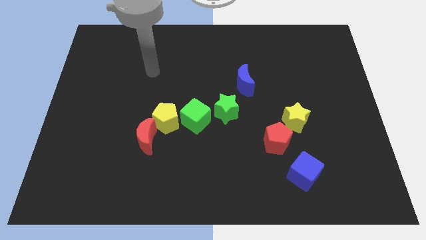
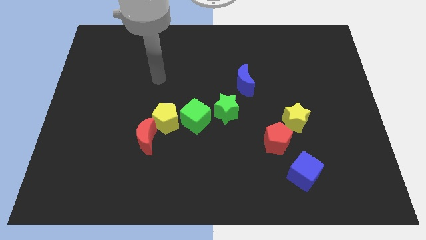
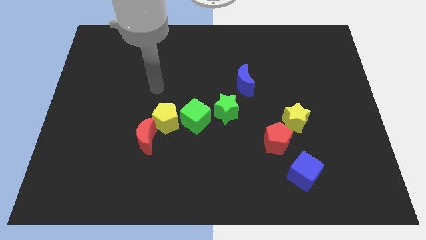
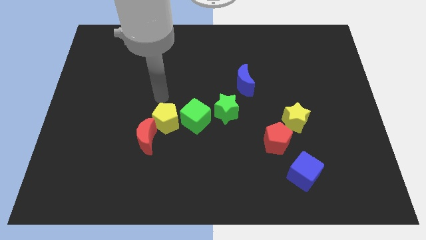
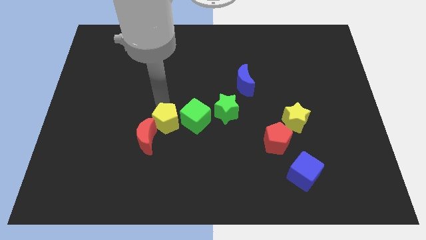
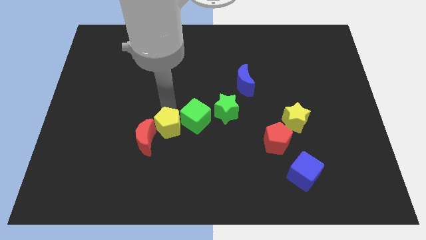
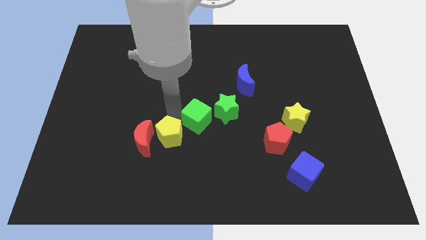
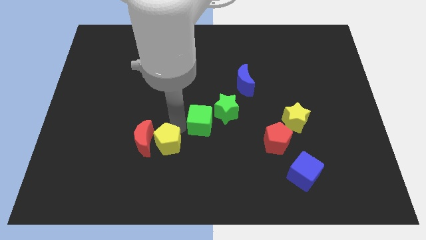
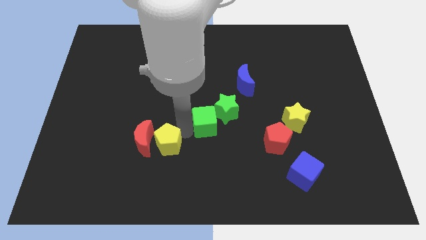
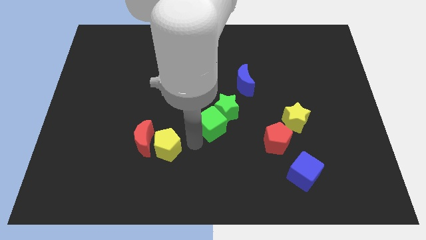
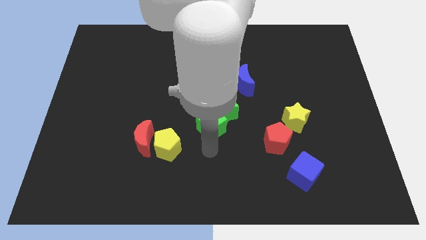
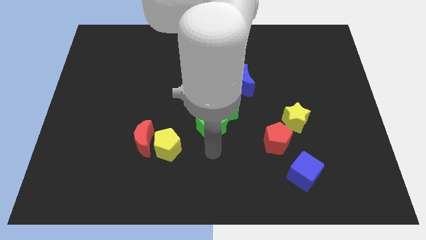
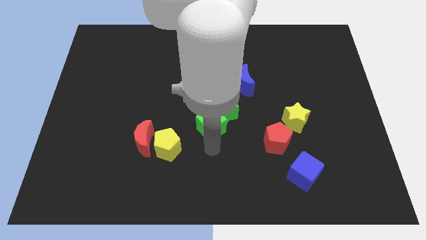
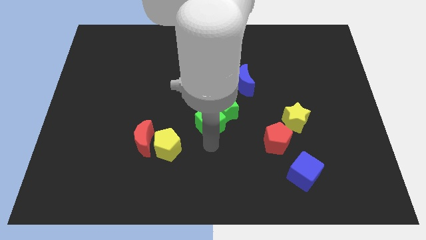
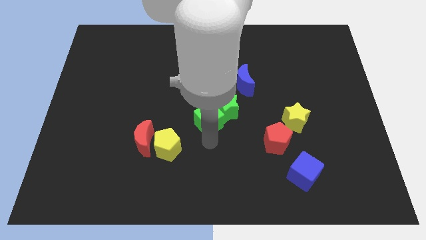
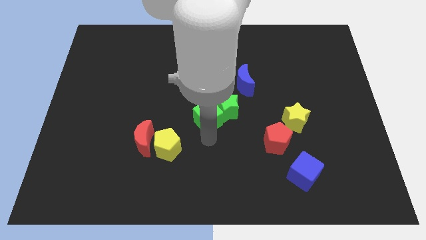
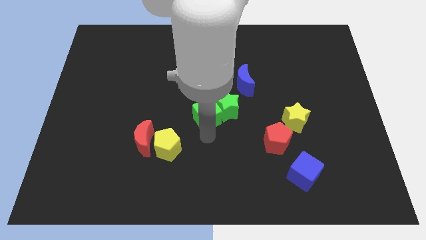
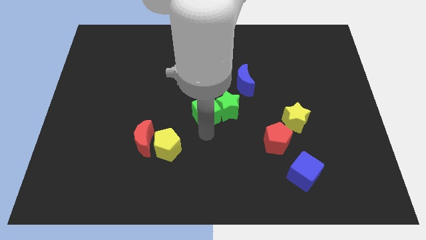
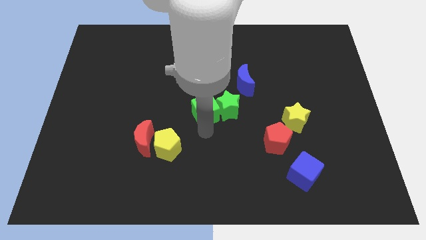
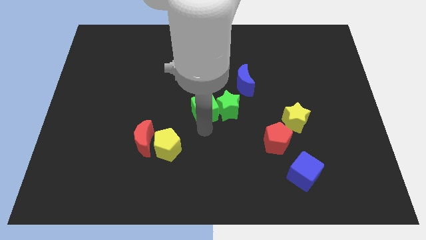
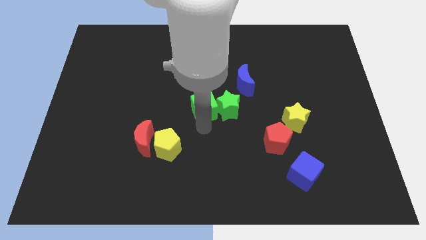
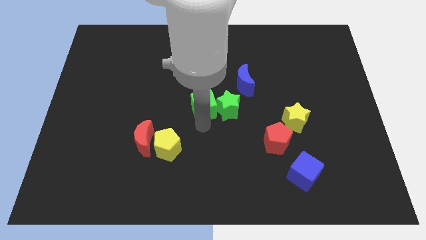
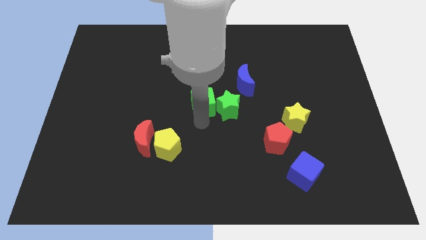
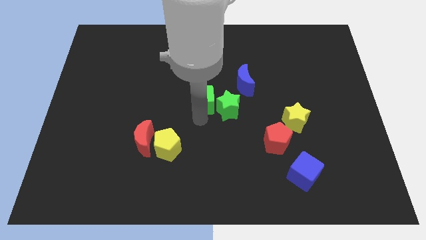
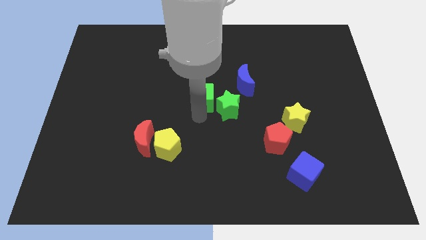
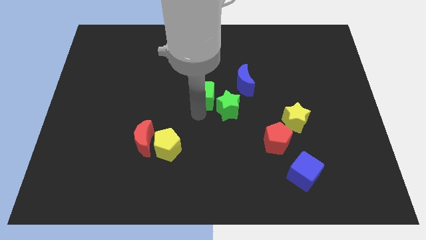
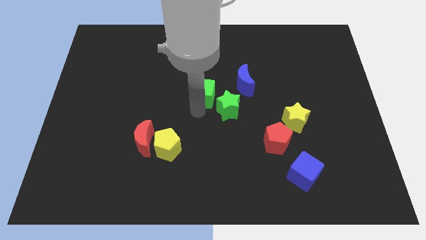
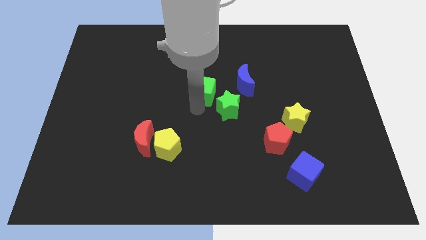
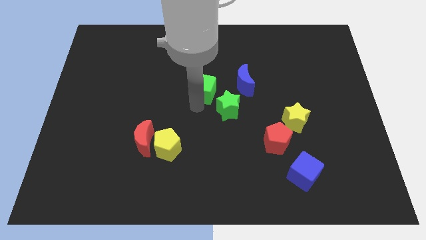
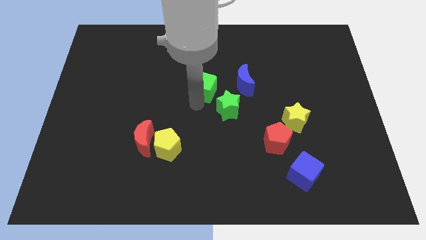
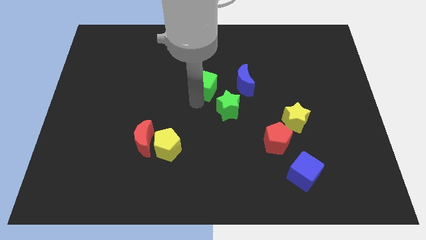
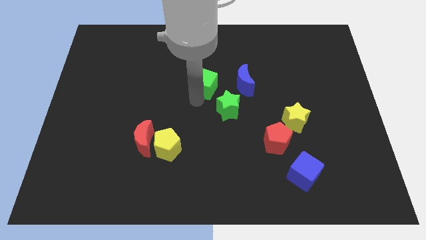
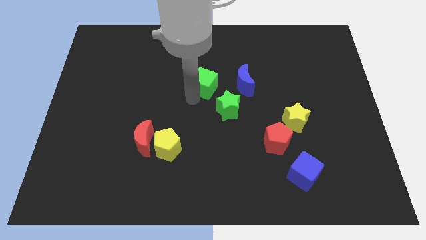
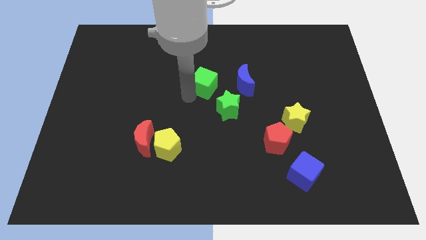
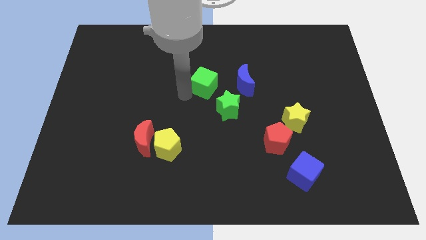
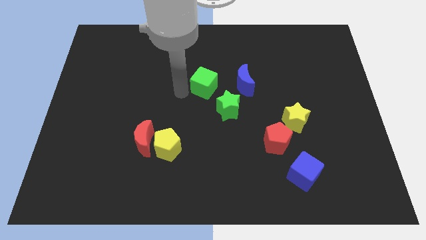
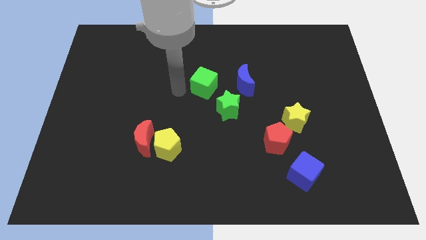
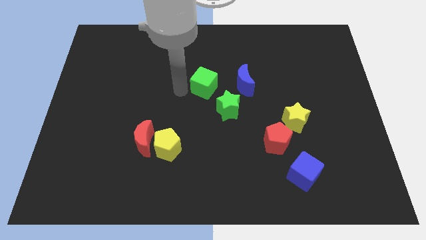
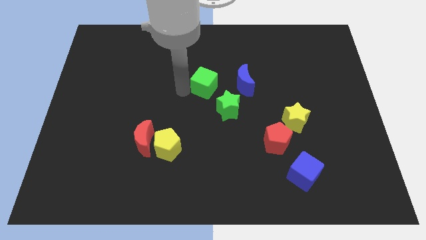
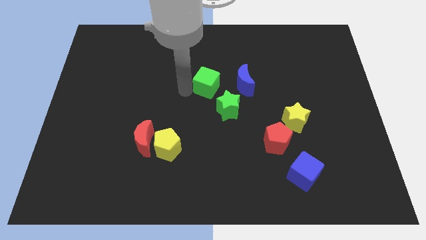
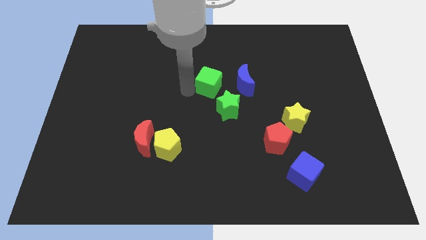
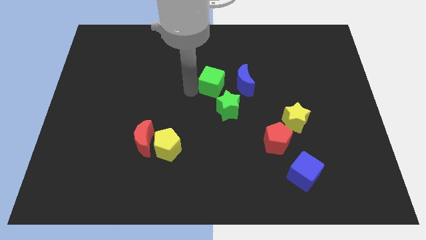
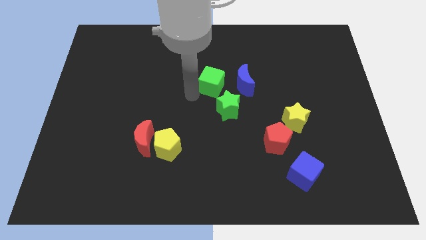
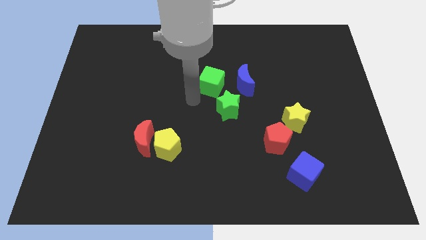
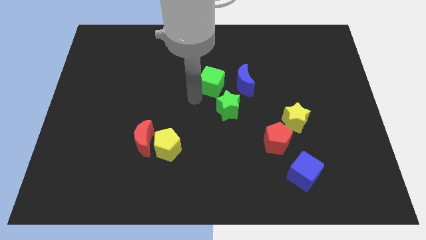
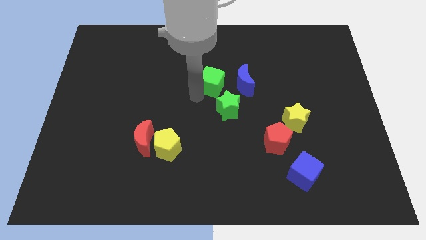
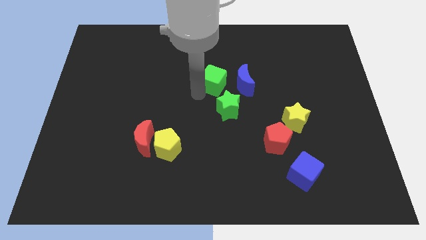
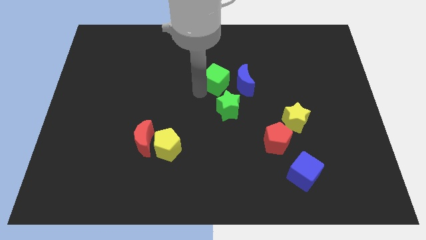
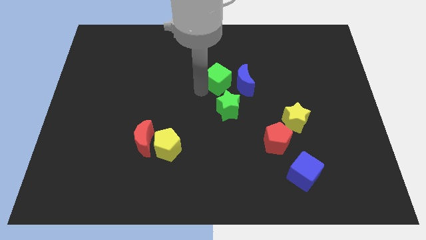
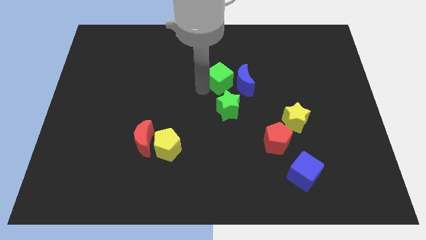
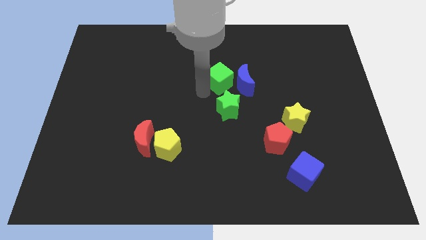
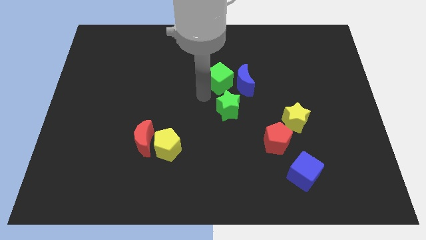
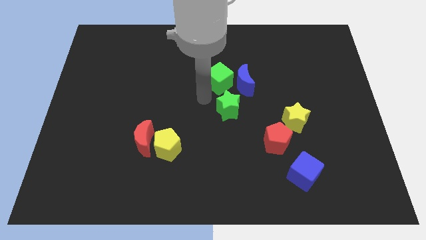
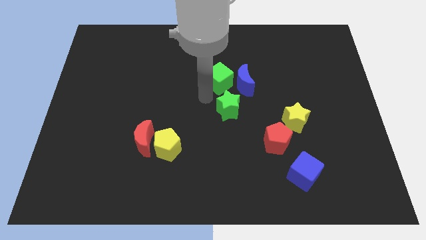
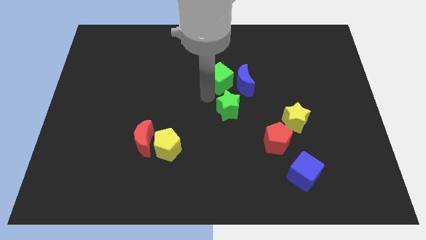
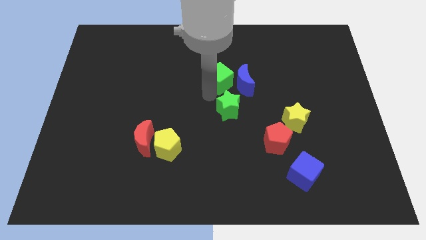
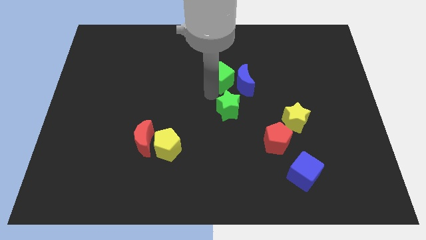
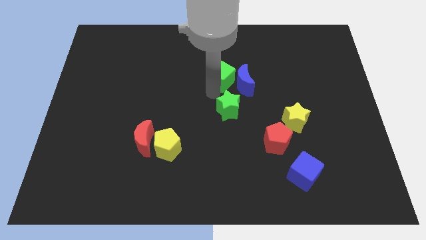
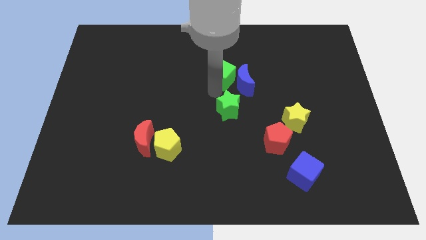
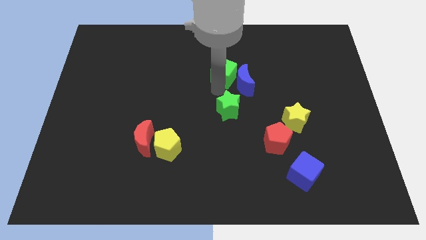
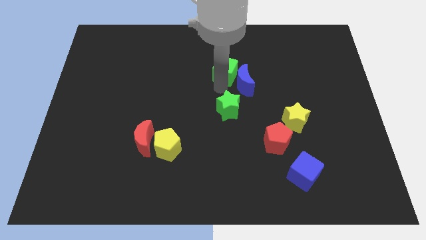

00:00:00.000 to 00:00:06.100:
slide the green cube to the top of the blue moon

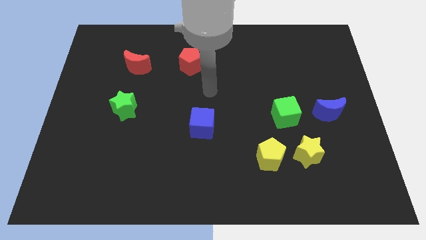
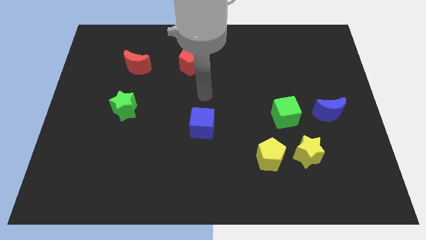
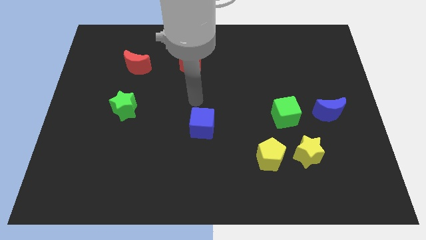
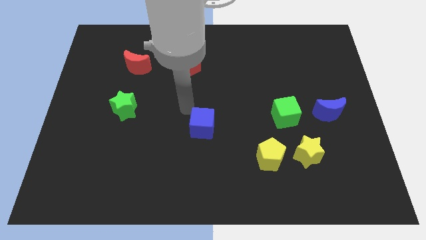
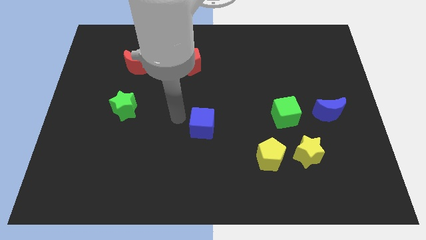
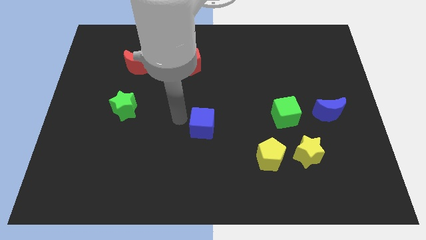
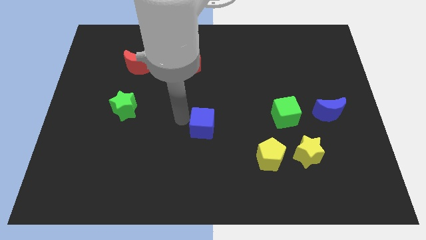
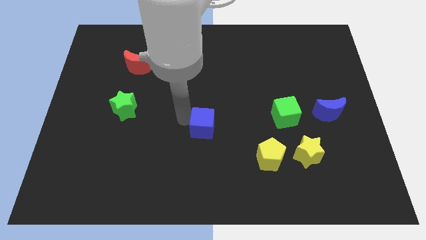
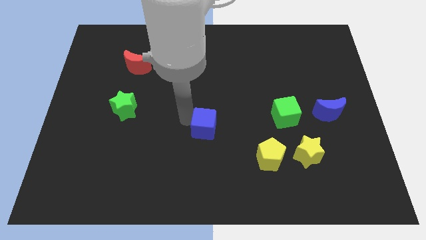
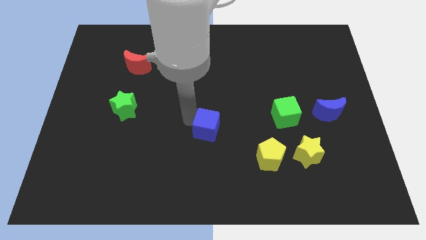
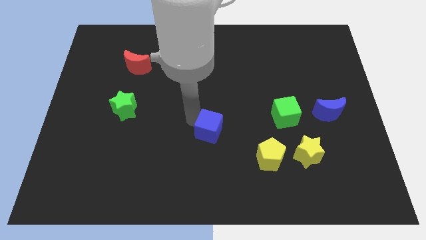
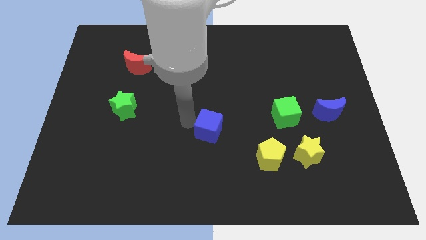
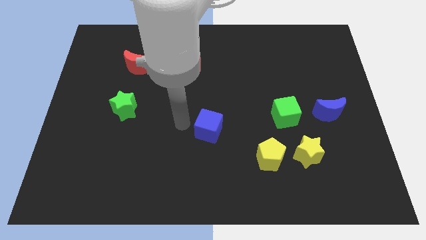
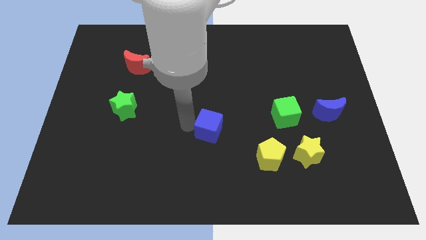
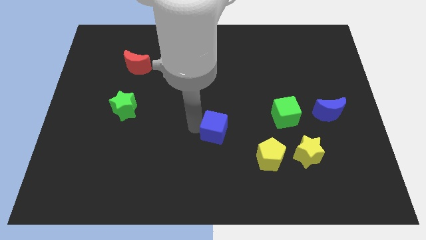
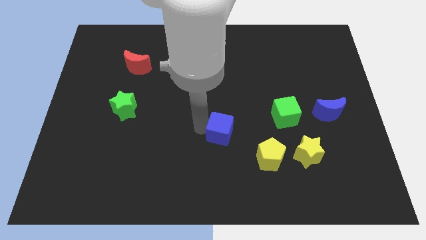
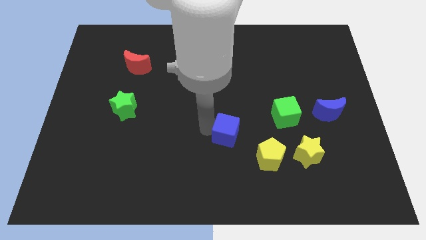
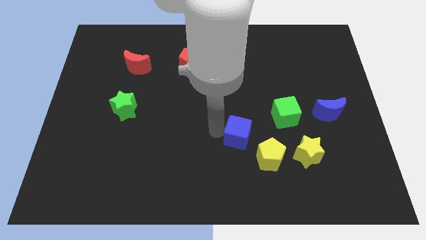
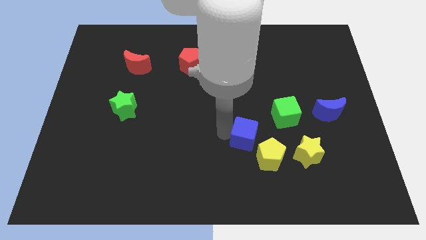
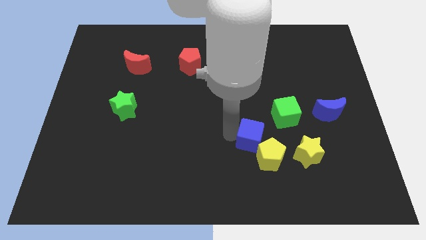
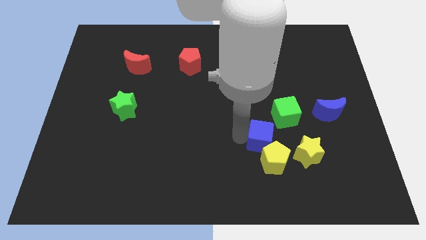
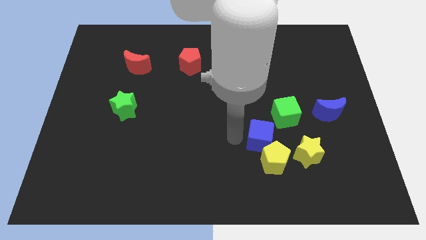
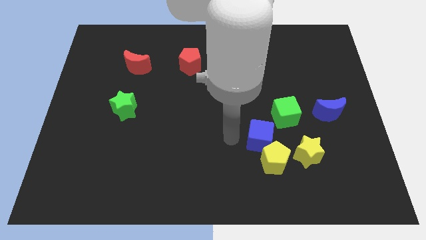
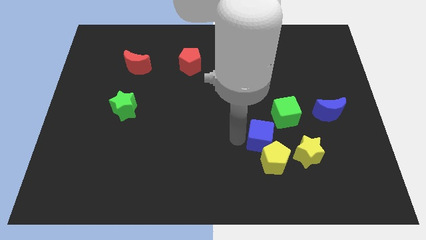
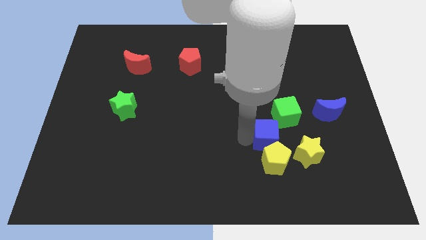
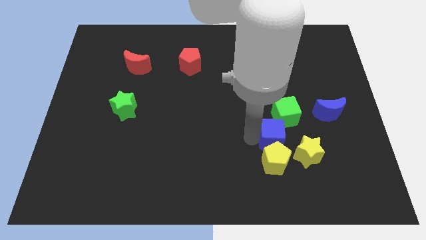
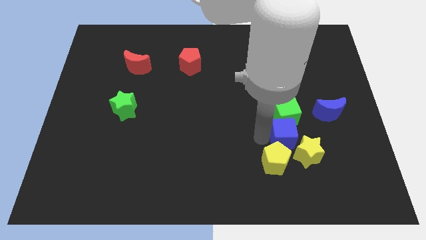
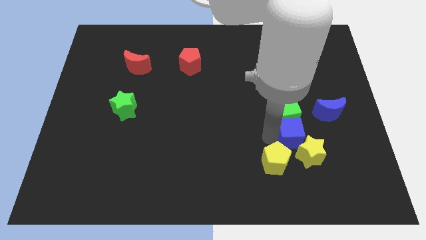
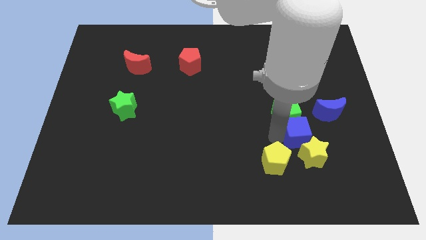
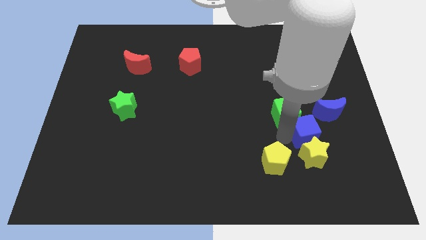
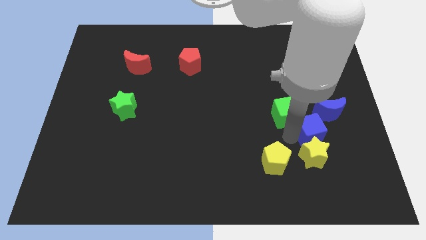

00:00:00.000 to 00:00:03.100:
put the blue cube right of the green cube
